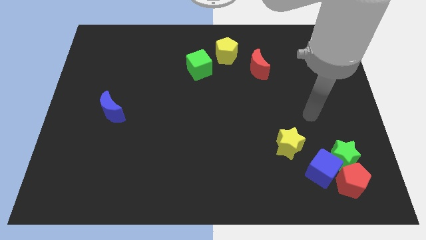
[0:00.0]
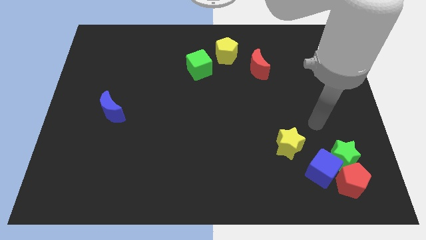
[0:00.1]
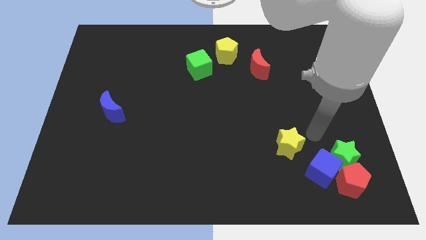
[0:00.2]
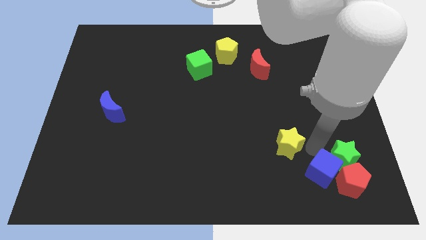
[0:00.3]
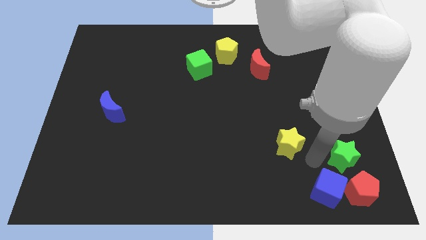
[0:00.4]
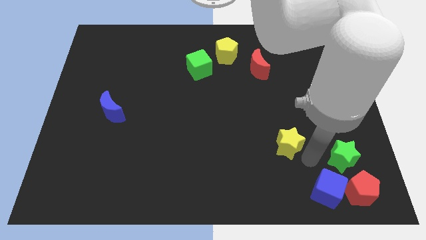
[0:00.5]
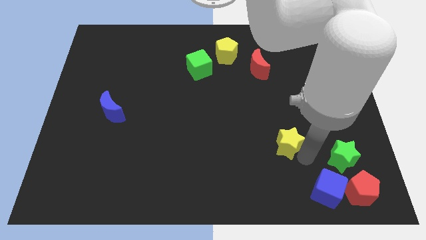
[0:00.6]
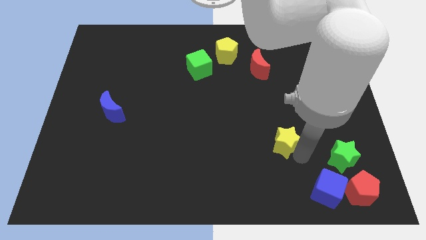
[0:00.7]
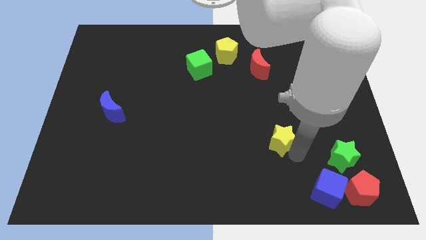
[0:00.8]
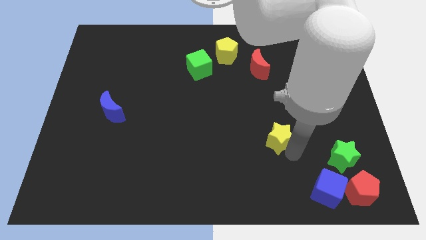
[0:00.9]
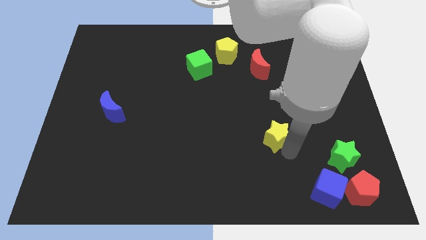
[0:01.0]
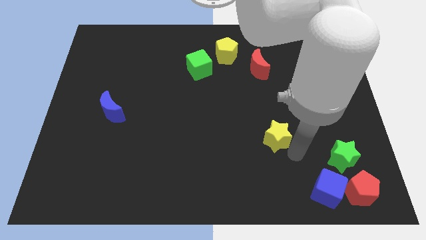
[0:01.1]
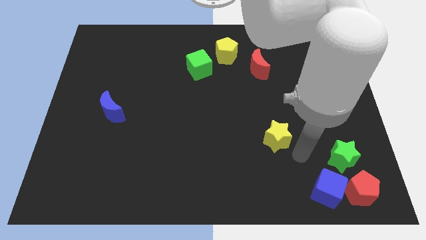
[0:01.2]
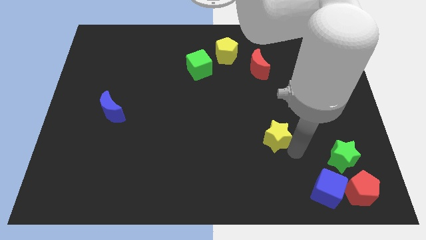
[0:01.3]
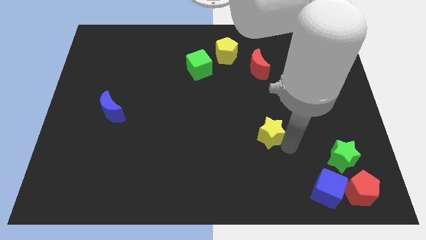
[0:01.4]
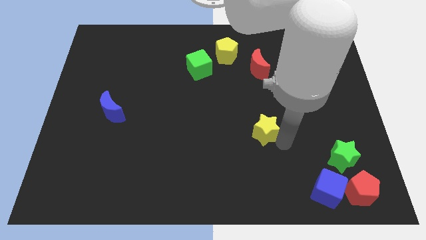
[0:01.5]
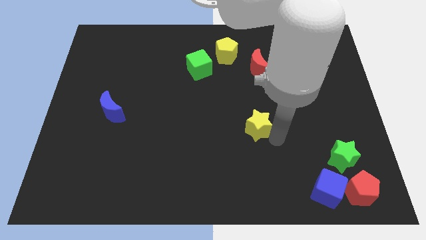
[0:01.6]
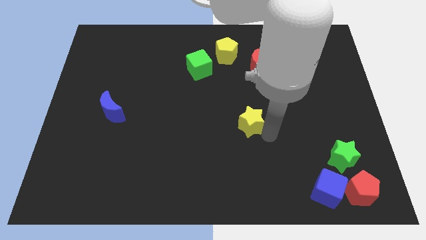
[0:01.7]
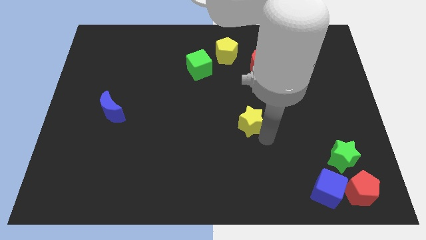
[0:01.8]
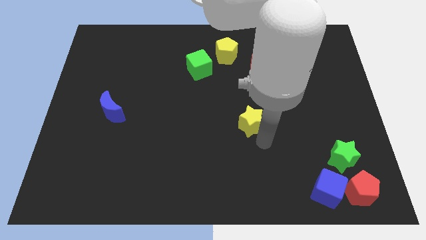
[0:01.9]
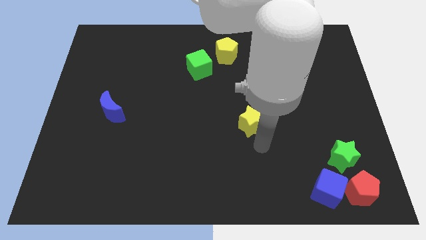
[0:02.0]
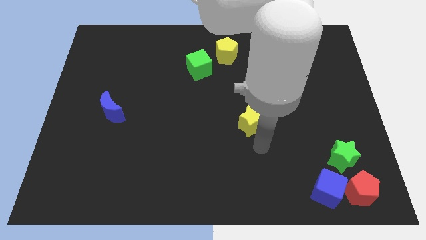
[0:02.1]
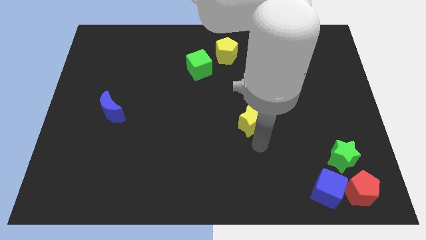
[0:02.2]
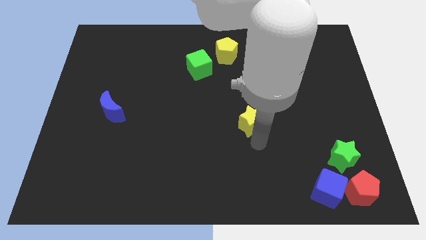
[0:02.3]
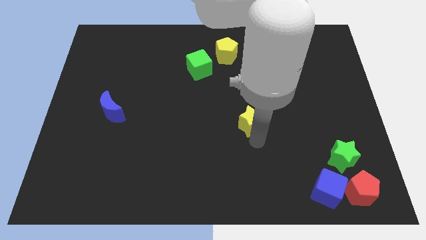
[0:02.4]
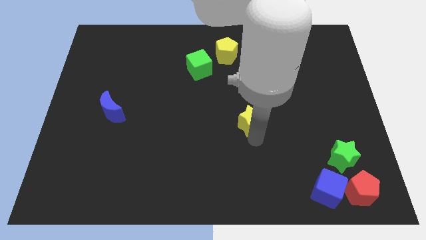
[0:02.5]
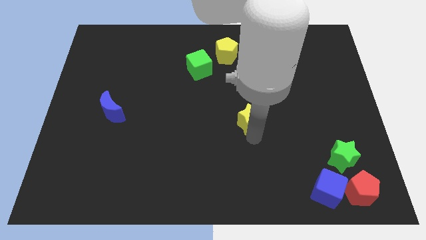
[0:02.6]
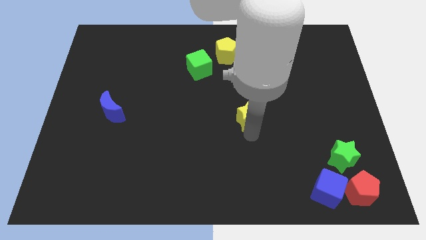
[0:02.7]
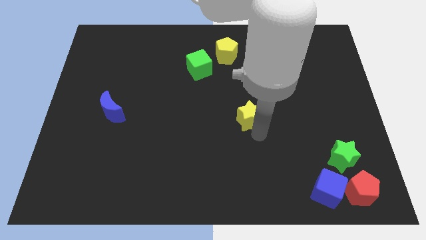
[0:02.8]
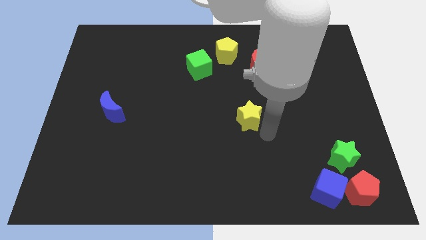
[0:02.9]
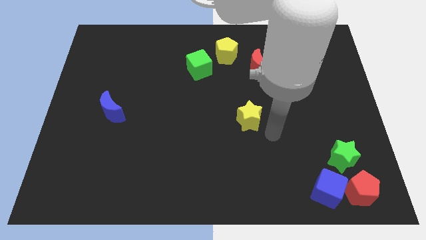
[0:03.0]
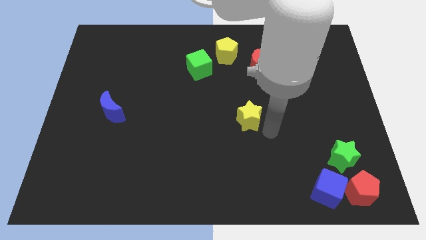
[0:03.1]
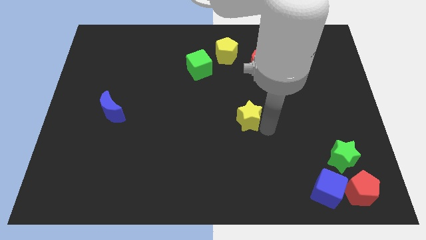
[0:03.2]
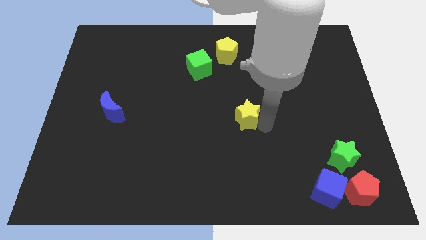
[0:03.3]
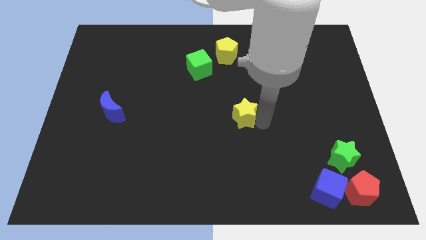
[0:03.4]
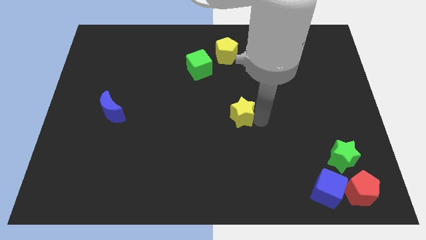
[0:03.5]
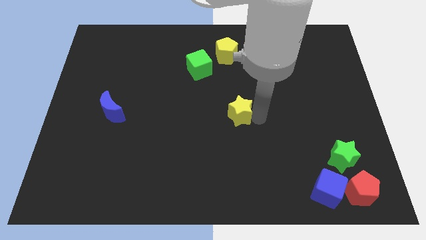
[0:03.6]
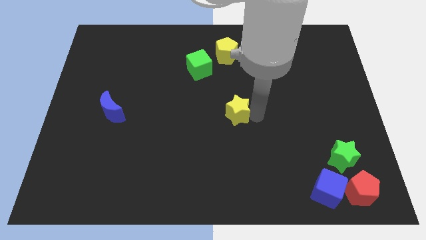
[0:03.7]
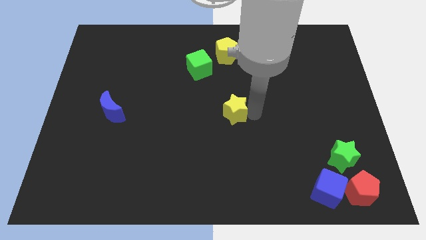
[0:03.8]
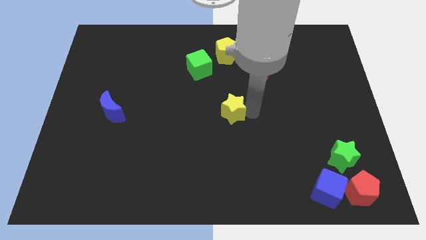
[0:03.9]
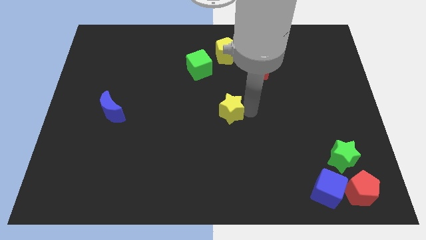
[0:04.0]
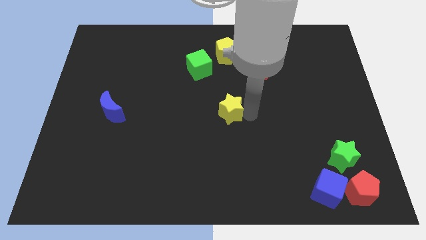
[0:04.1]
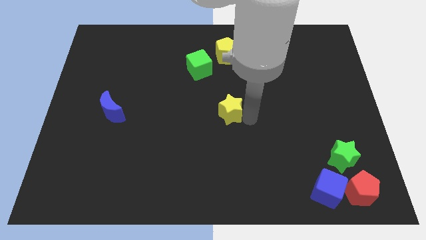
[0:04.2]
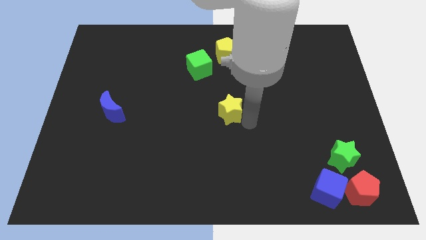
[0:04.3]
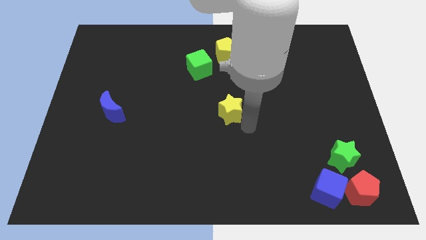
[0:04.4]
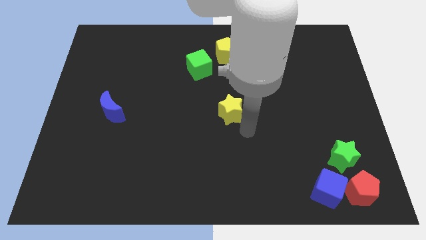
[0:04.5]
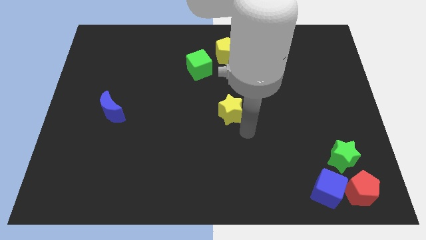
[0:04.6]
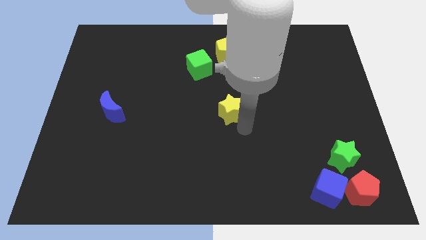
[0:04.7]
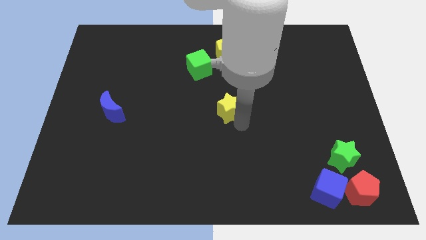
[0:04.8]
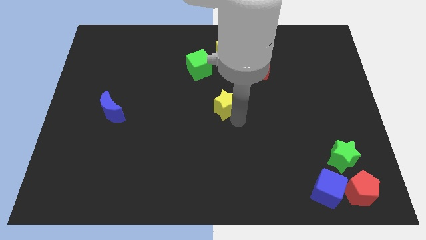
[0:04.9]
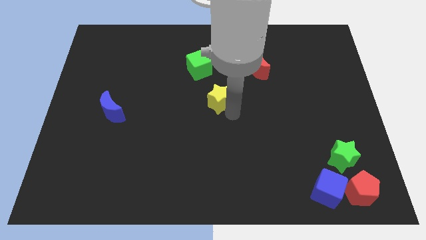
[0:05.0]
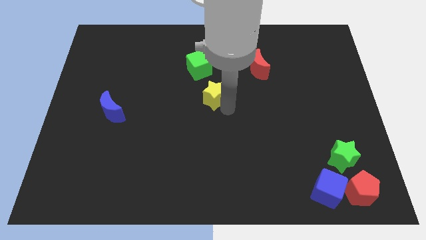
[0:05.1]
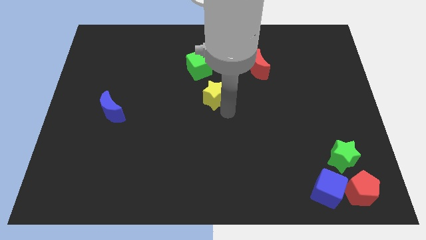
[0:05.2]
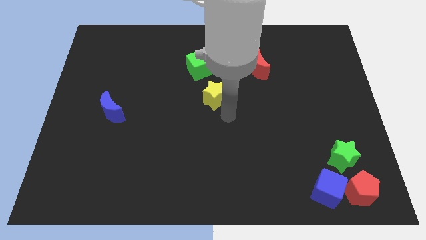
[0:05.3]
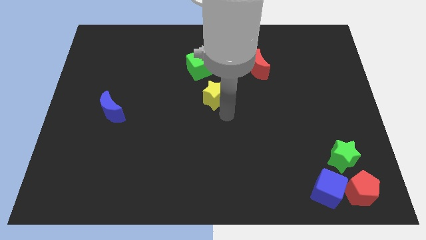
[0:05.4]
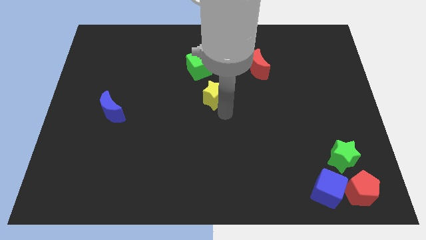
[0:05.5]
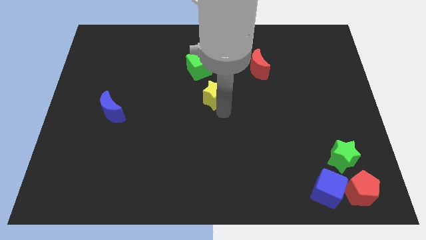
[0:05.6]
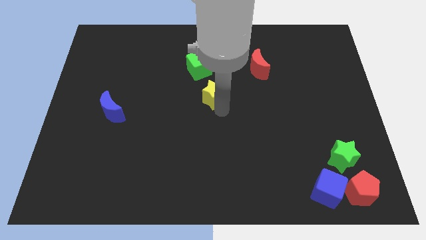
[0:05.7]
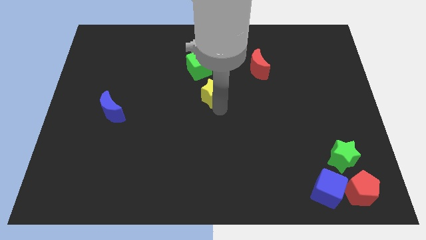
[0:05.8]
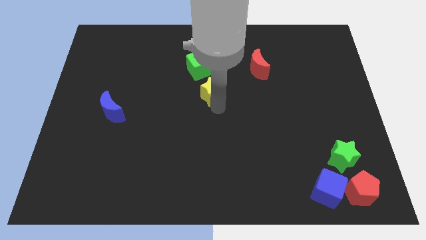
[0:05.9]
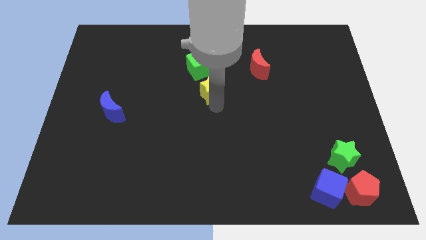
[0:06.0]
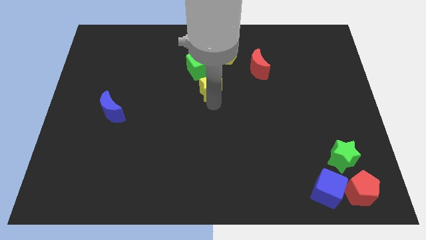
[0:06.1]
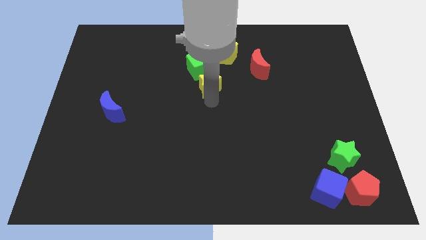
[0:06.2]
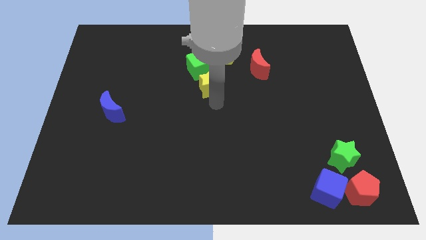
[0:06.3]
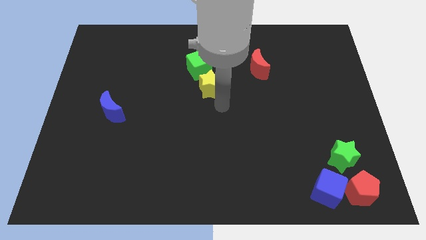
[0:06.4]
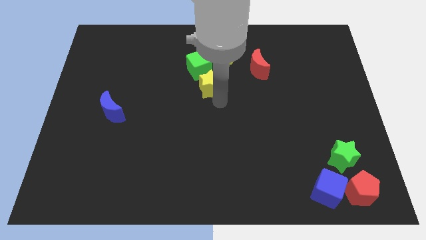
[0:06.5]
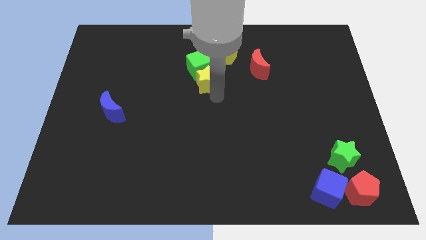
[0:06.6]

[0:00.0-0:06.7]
move the yellow star next to the green cube

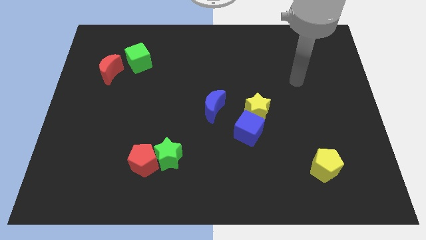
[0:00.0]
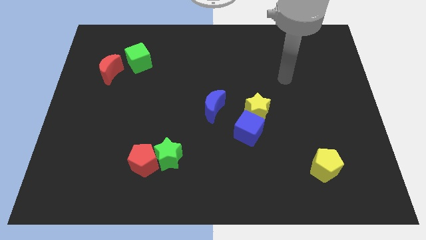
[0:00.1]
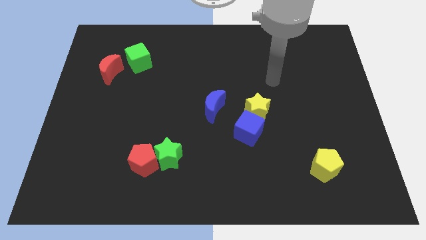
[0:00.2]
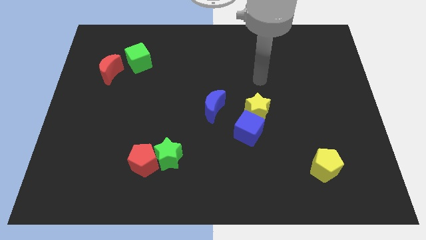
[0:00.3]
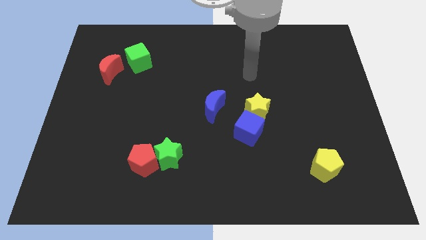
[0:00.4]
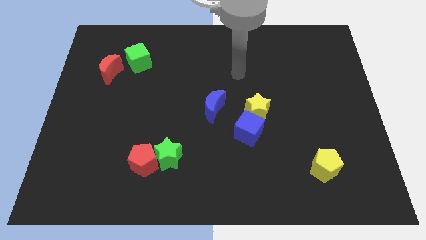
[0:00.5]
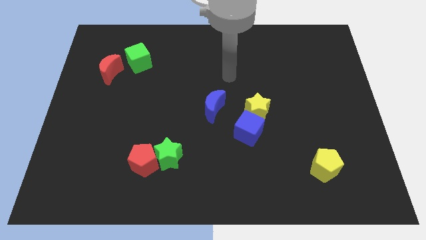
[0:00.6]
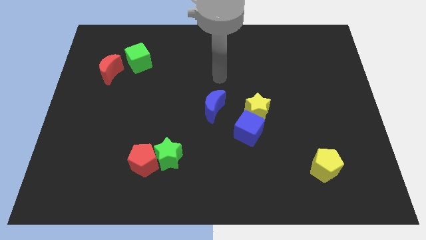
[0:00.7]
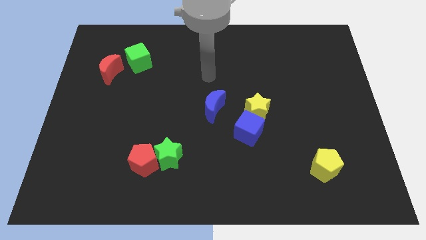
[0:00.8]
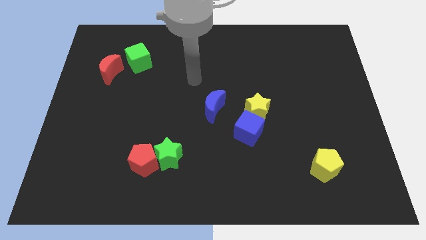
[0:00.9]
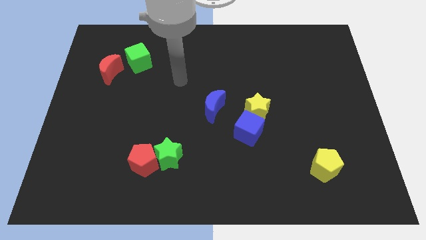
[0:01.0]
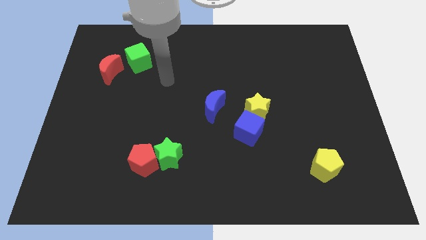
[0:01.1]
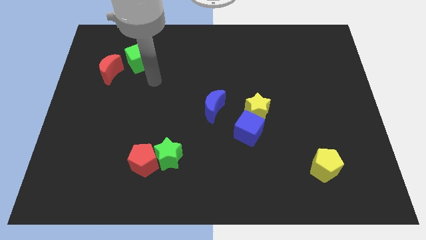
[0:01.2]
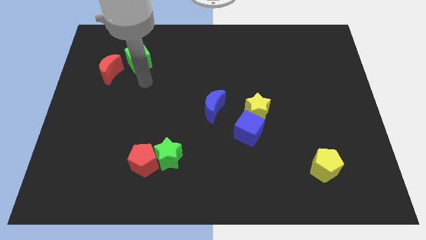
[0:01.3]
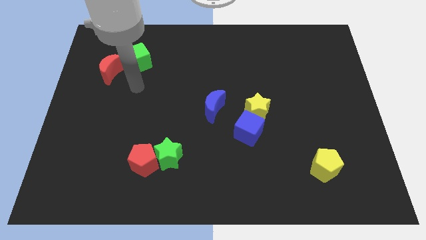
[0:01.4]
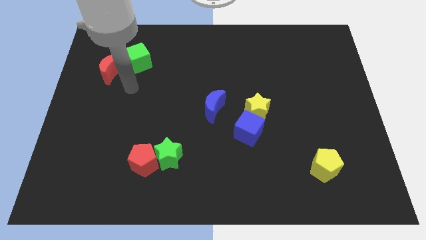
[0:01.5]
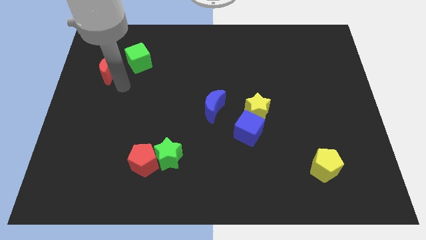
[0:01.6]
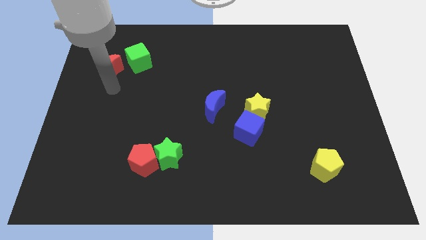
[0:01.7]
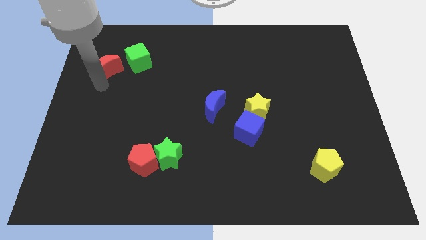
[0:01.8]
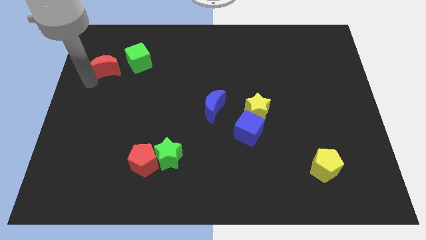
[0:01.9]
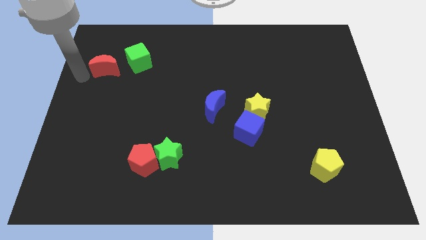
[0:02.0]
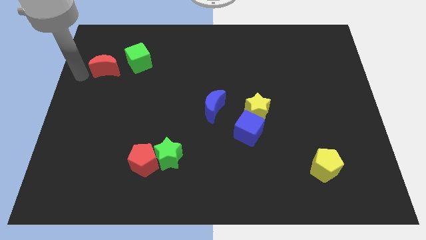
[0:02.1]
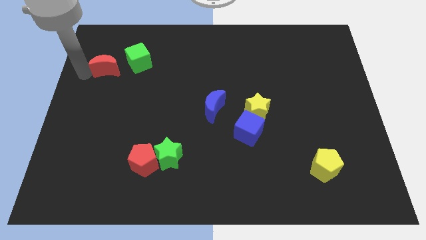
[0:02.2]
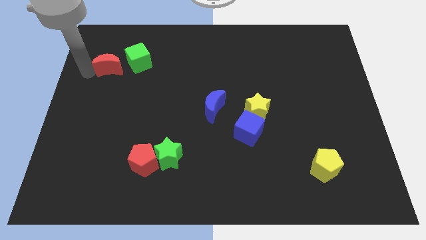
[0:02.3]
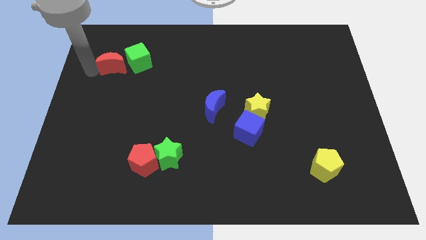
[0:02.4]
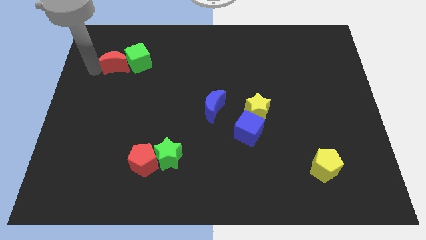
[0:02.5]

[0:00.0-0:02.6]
put the red moon to the green cube
